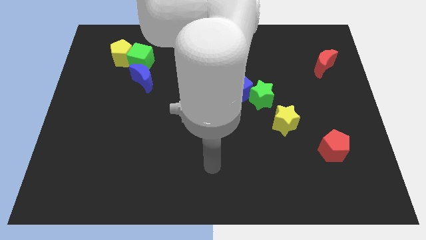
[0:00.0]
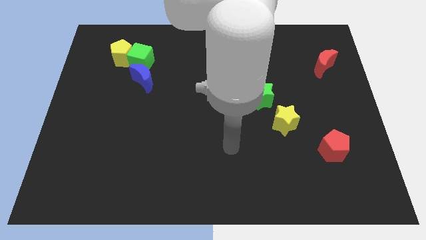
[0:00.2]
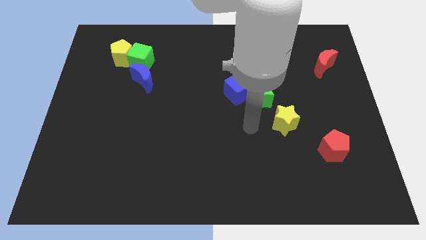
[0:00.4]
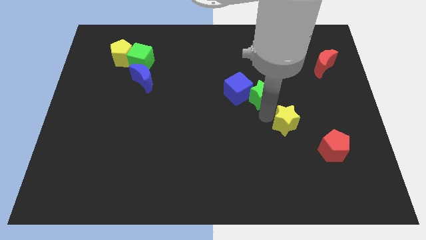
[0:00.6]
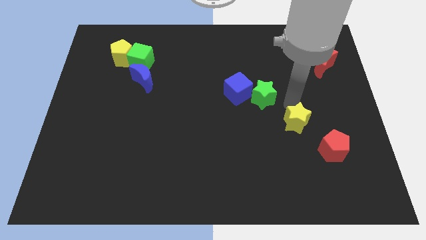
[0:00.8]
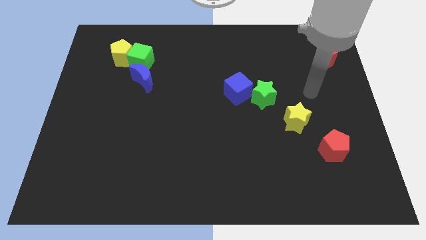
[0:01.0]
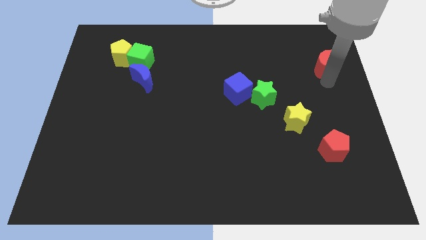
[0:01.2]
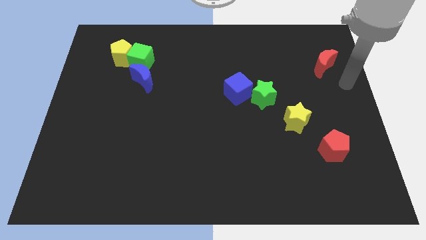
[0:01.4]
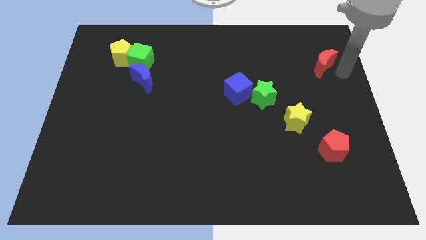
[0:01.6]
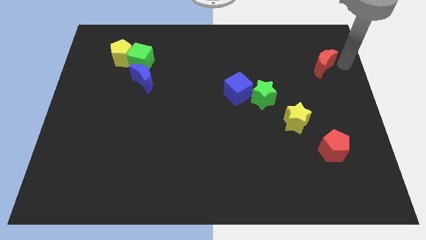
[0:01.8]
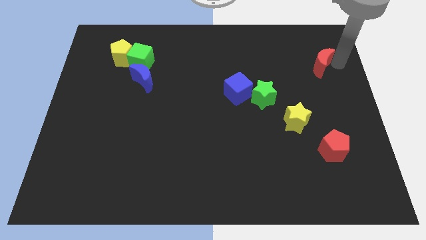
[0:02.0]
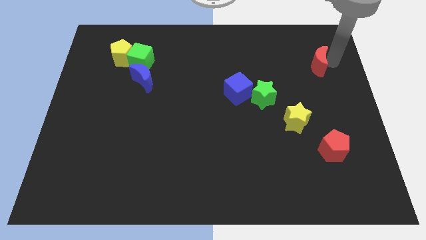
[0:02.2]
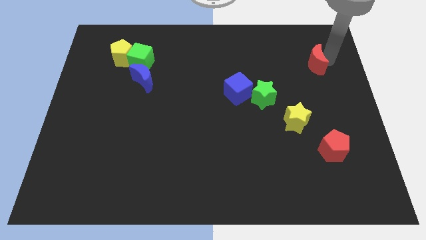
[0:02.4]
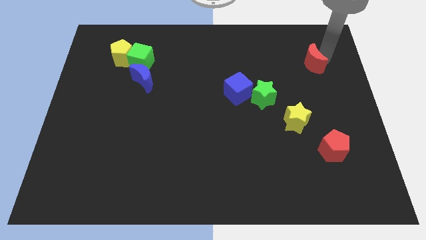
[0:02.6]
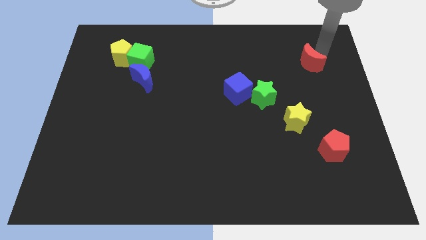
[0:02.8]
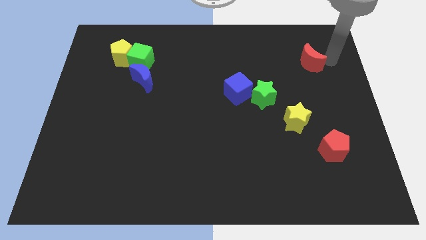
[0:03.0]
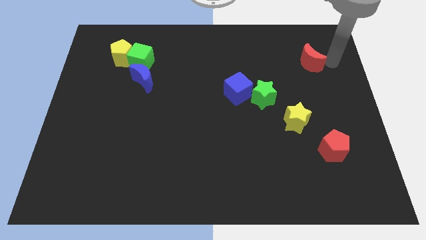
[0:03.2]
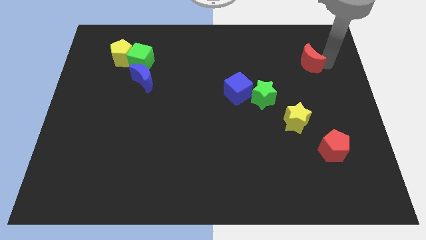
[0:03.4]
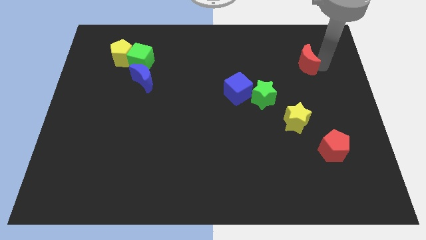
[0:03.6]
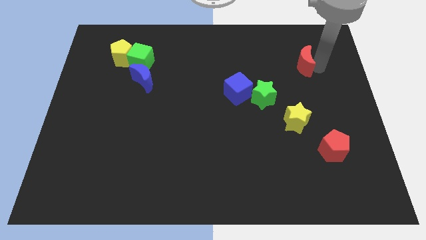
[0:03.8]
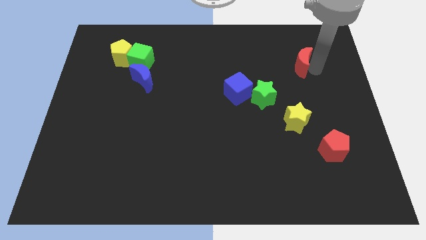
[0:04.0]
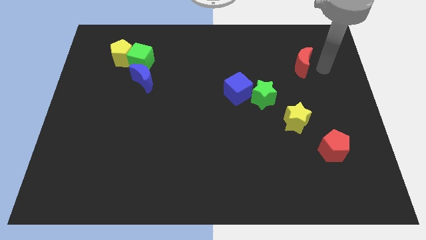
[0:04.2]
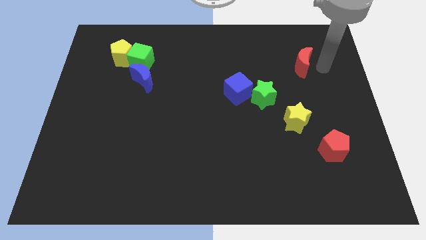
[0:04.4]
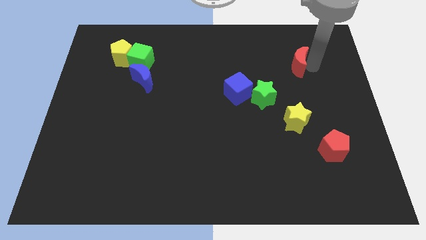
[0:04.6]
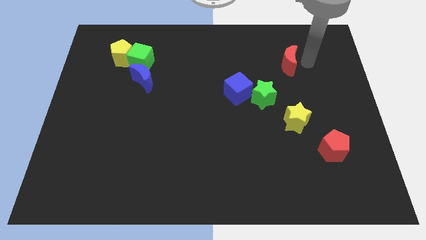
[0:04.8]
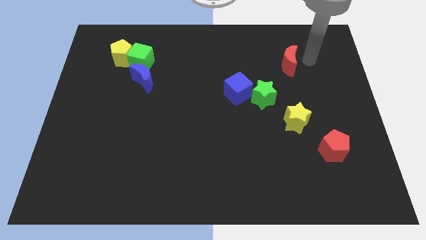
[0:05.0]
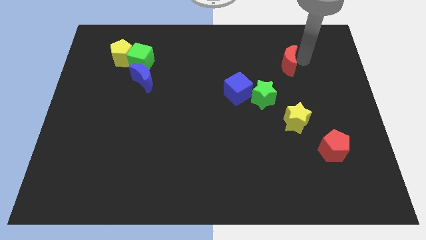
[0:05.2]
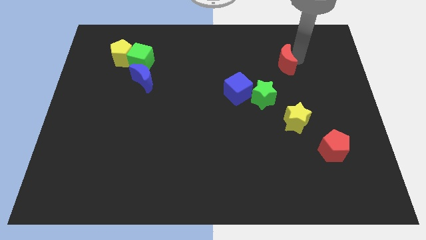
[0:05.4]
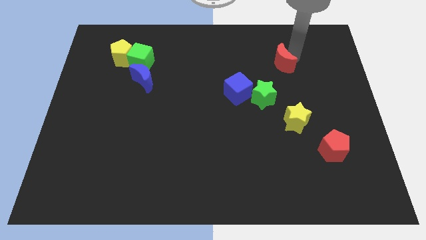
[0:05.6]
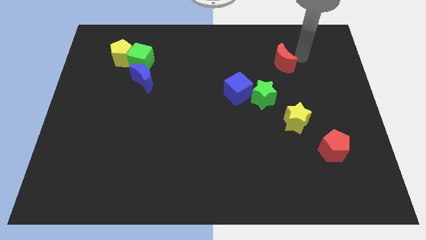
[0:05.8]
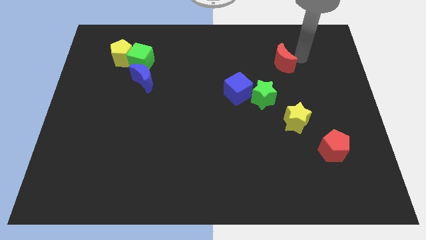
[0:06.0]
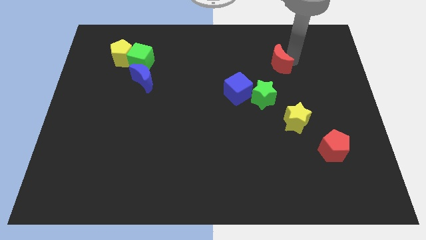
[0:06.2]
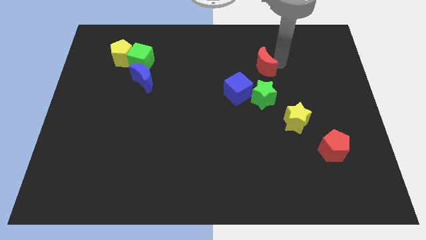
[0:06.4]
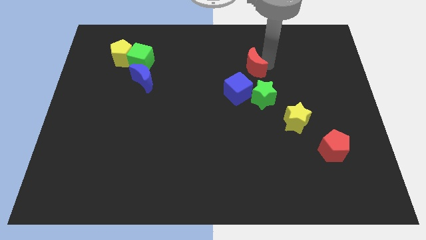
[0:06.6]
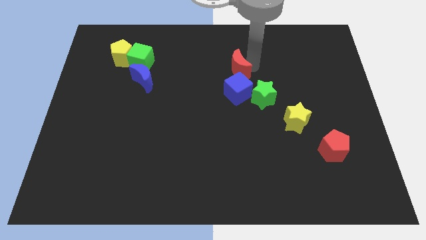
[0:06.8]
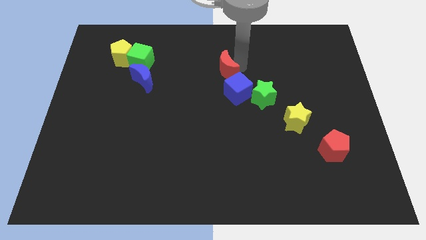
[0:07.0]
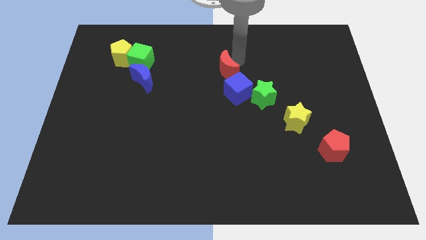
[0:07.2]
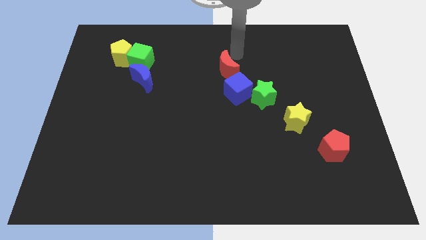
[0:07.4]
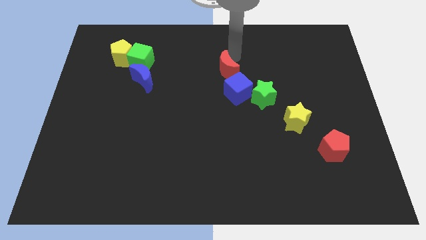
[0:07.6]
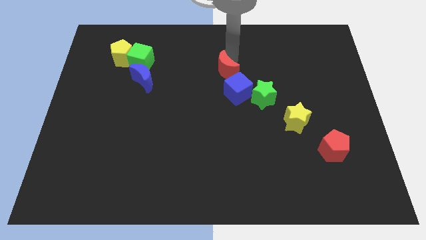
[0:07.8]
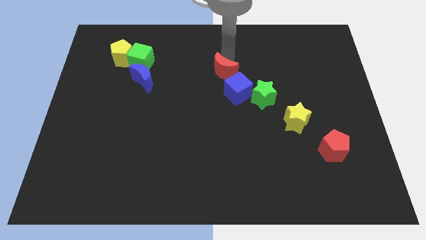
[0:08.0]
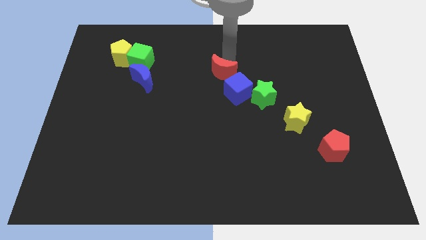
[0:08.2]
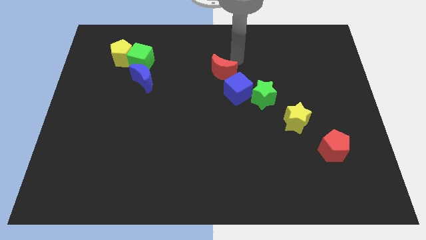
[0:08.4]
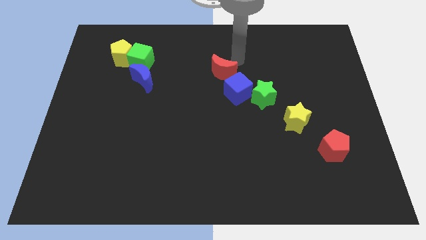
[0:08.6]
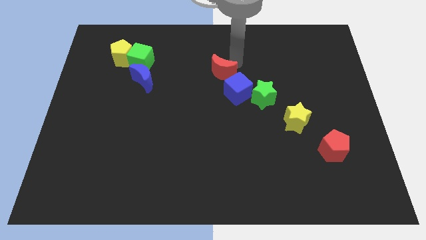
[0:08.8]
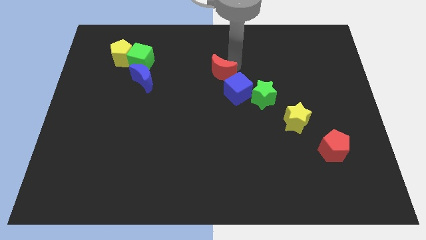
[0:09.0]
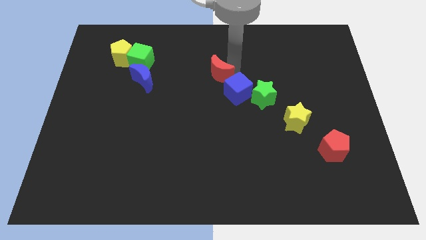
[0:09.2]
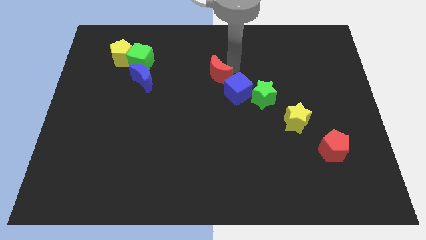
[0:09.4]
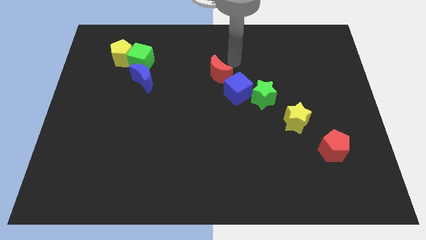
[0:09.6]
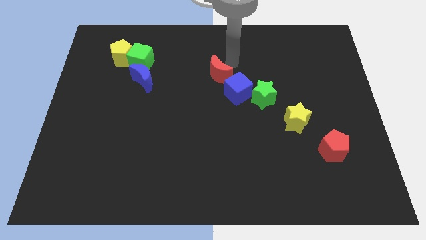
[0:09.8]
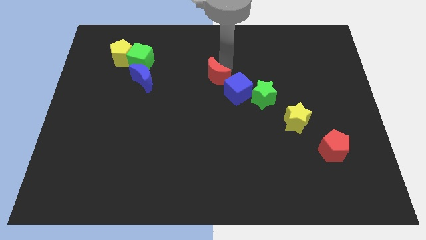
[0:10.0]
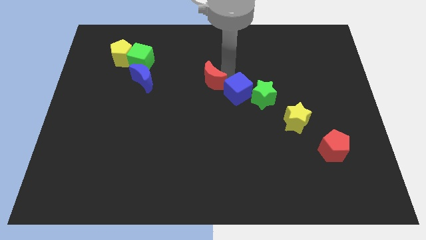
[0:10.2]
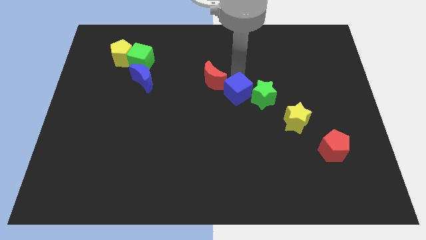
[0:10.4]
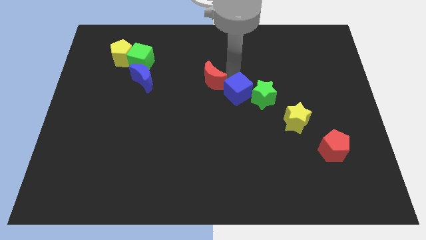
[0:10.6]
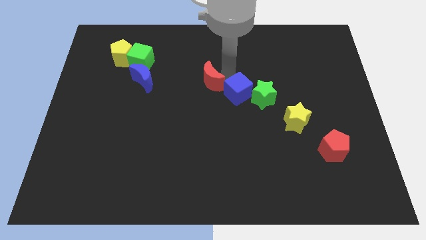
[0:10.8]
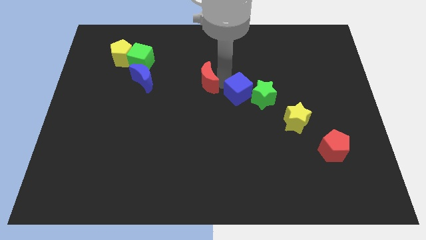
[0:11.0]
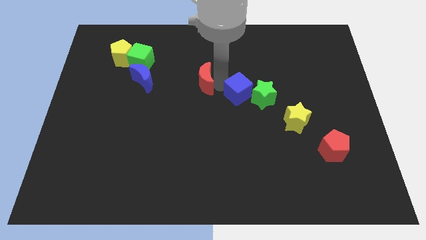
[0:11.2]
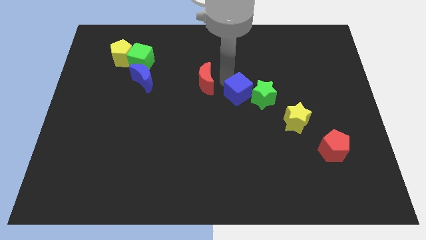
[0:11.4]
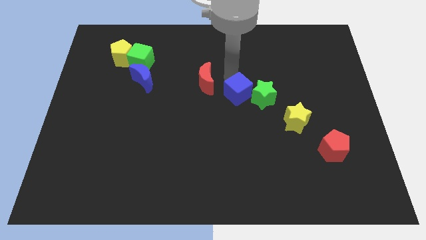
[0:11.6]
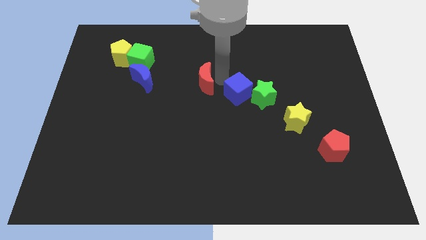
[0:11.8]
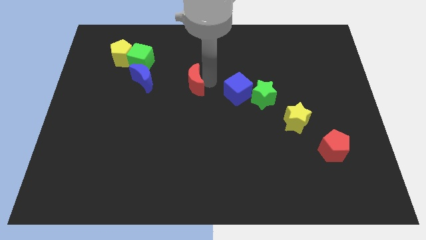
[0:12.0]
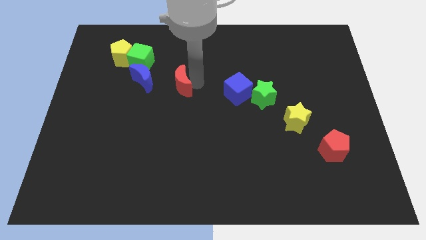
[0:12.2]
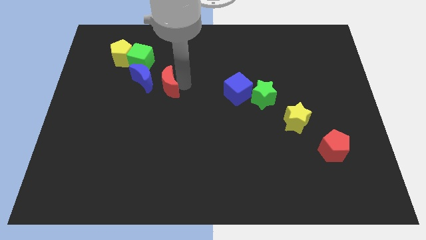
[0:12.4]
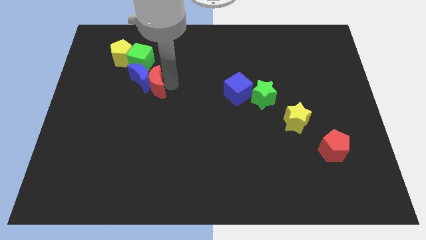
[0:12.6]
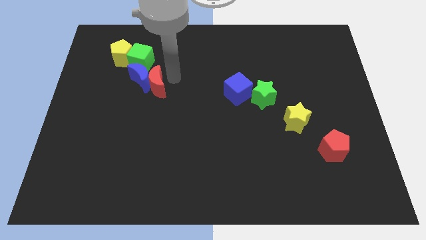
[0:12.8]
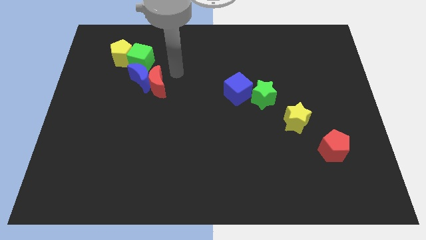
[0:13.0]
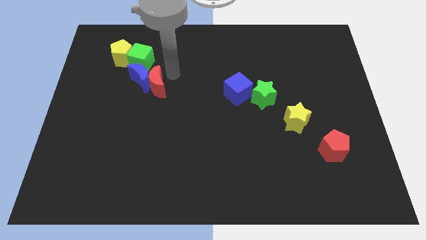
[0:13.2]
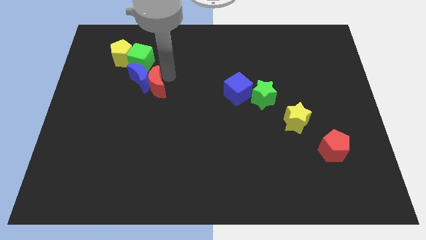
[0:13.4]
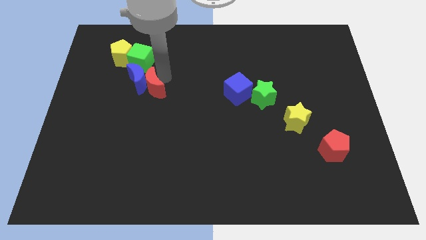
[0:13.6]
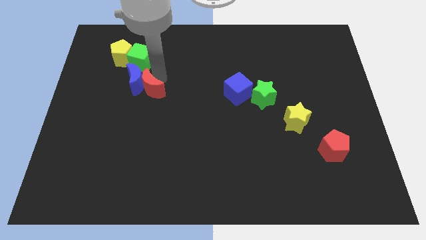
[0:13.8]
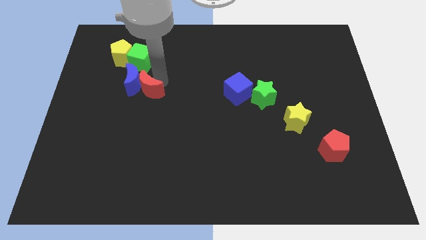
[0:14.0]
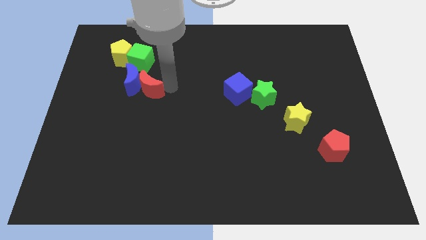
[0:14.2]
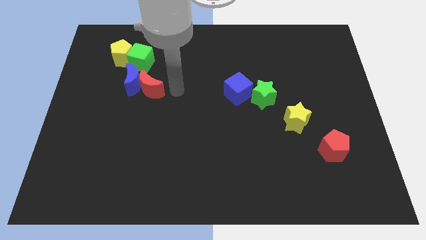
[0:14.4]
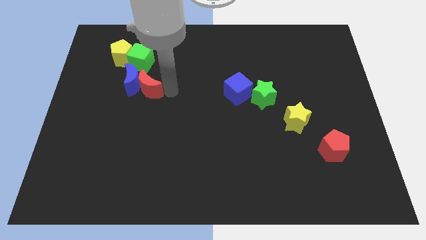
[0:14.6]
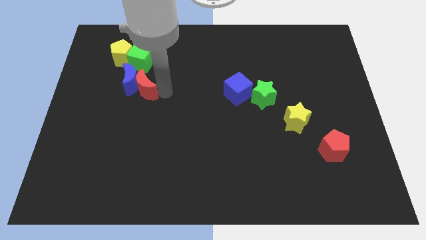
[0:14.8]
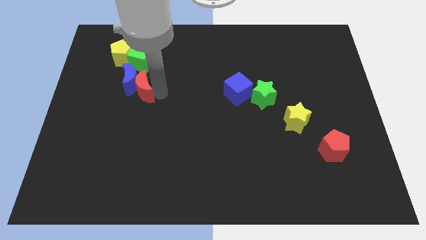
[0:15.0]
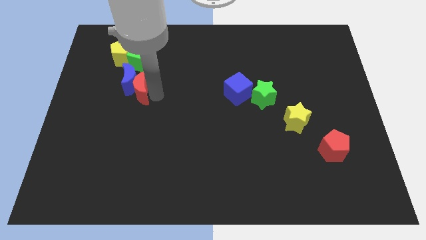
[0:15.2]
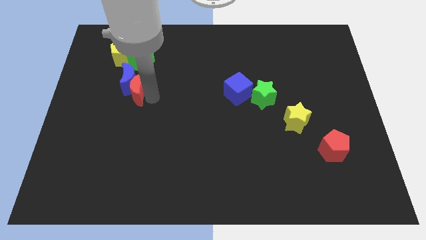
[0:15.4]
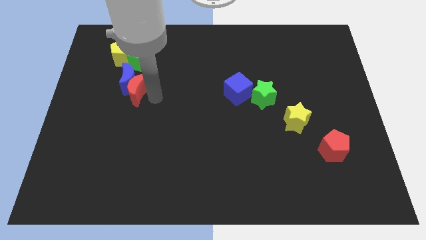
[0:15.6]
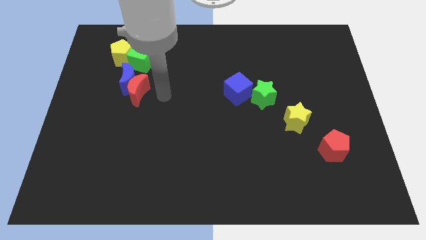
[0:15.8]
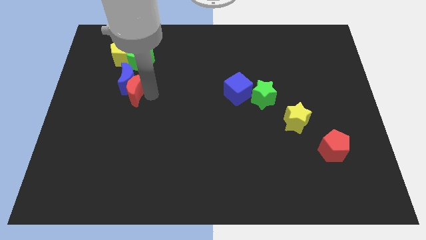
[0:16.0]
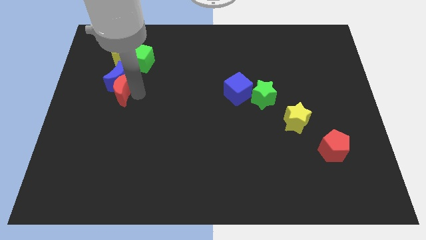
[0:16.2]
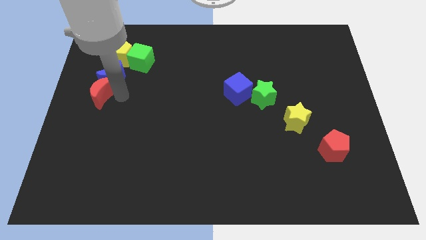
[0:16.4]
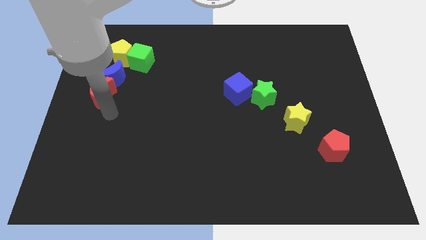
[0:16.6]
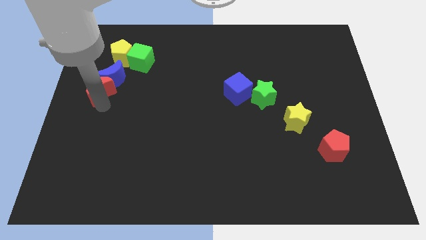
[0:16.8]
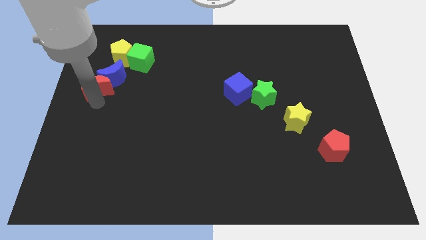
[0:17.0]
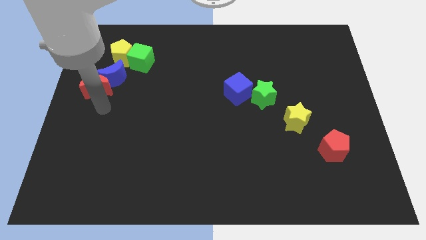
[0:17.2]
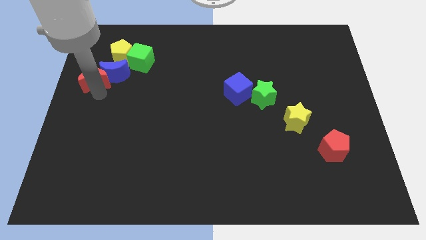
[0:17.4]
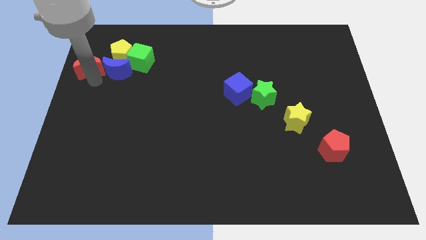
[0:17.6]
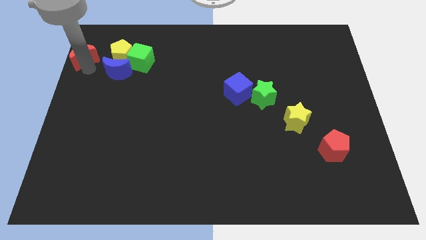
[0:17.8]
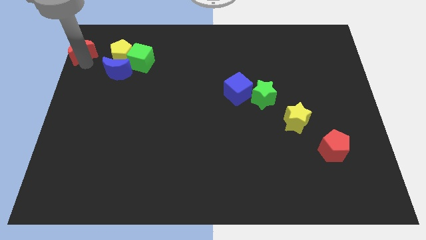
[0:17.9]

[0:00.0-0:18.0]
slide the red moon to the top left corner
